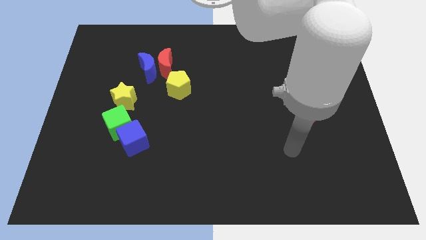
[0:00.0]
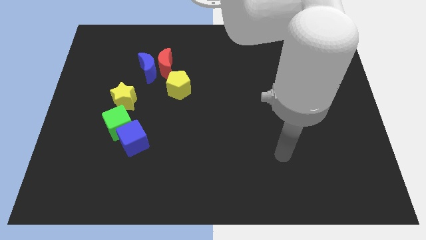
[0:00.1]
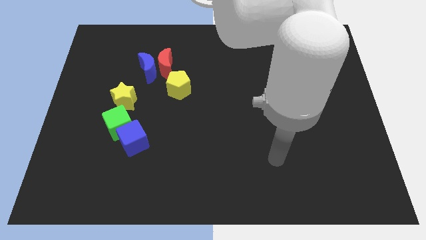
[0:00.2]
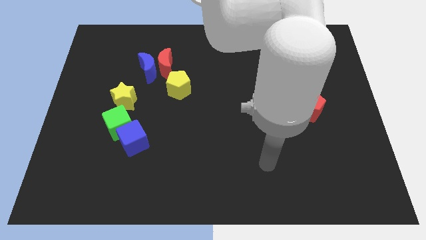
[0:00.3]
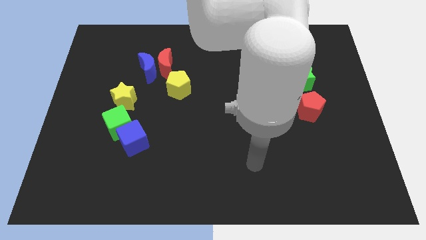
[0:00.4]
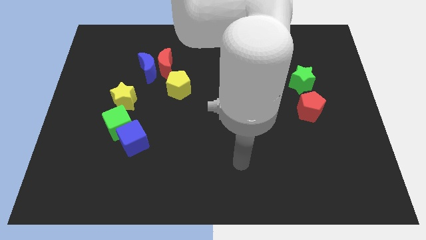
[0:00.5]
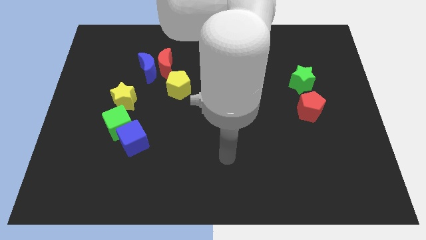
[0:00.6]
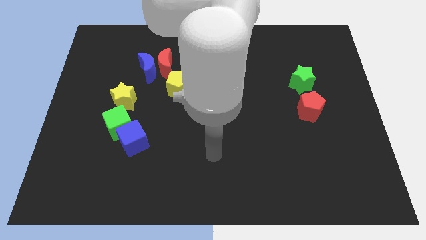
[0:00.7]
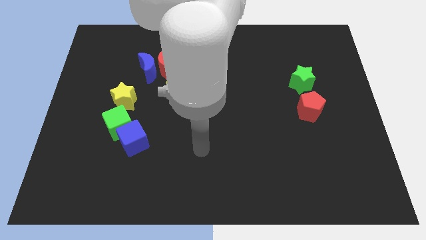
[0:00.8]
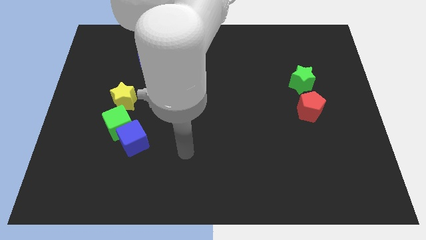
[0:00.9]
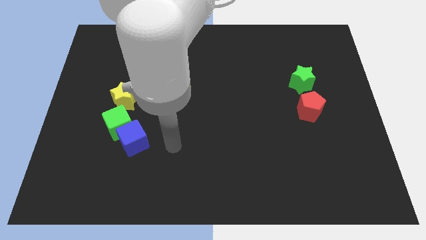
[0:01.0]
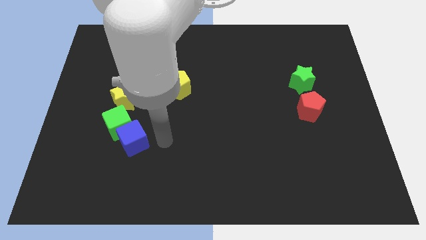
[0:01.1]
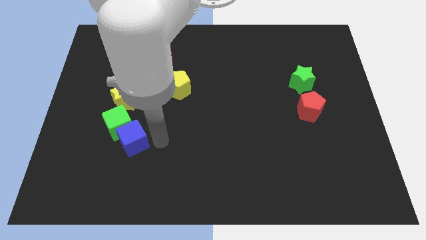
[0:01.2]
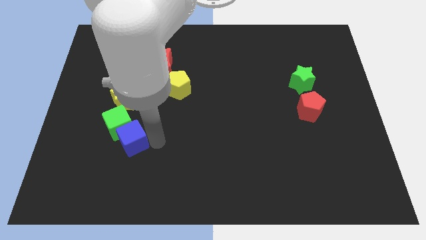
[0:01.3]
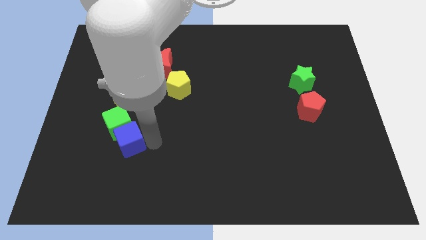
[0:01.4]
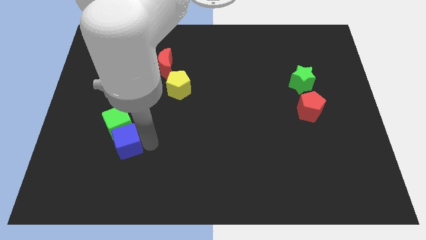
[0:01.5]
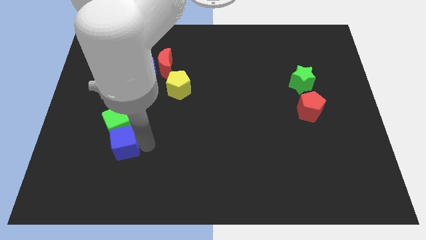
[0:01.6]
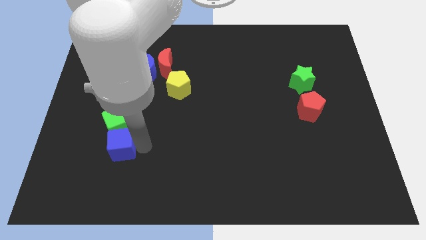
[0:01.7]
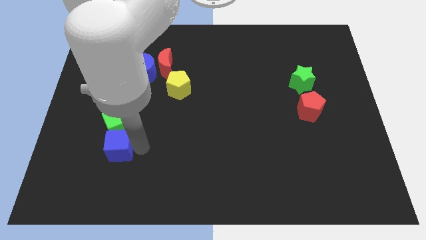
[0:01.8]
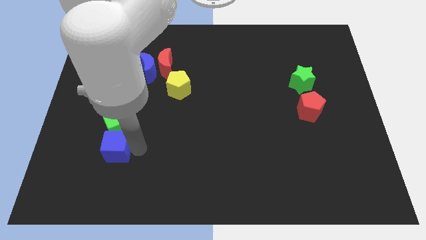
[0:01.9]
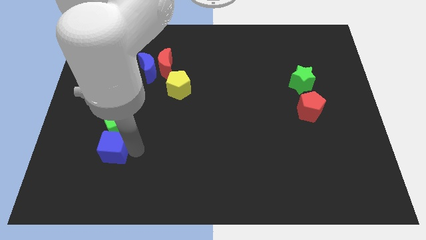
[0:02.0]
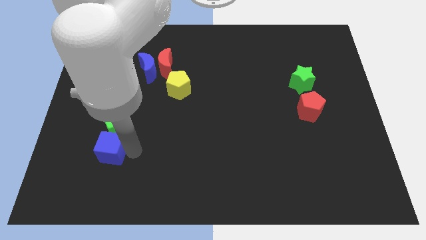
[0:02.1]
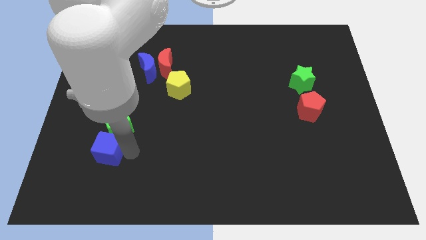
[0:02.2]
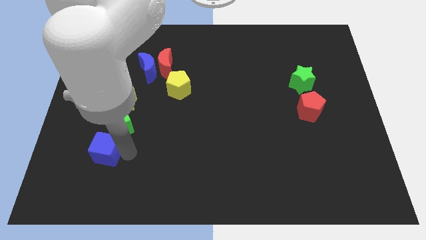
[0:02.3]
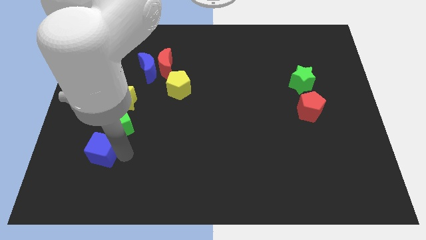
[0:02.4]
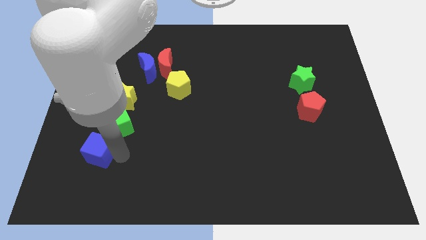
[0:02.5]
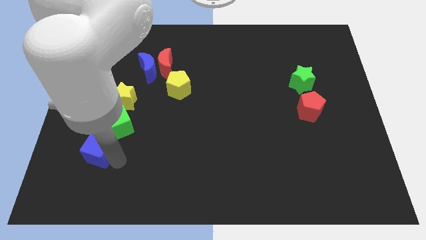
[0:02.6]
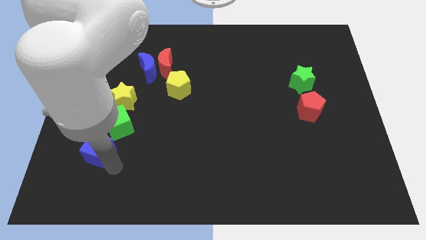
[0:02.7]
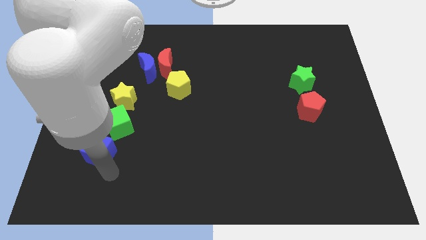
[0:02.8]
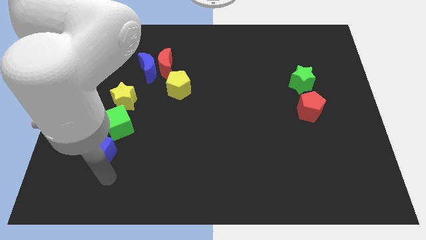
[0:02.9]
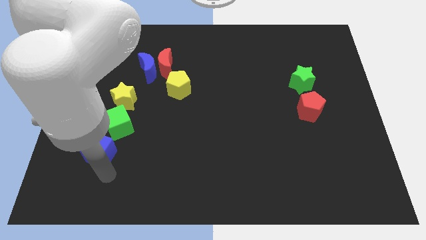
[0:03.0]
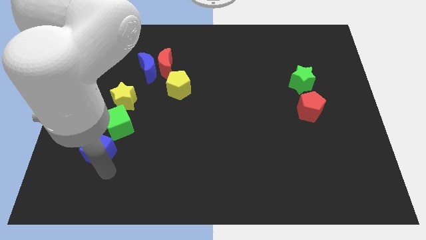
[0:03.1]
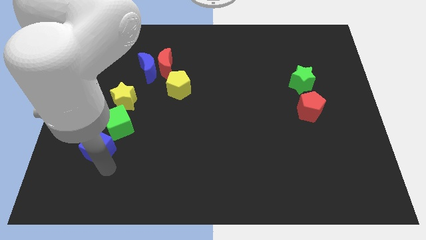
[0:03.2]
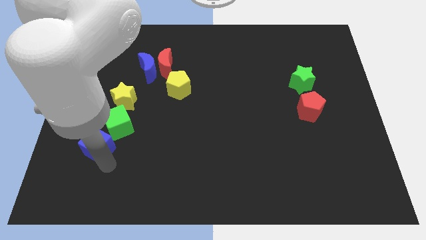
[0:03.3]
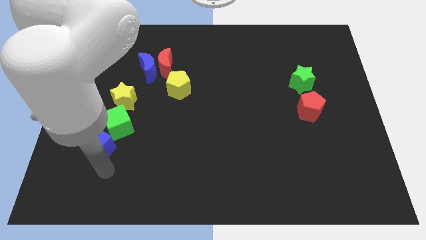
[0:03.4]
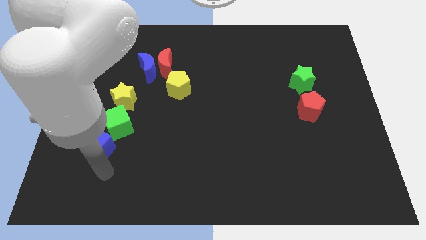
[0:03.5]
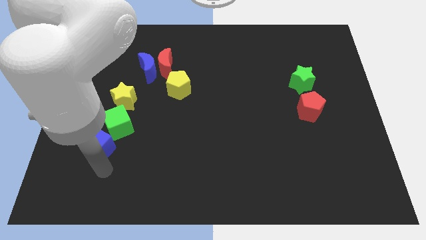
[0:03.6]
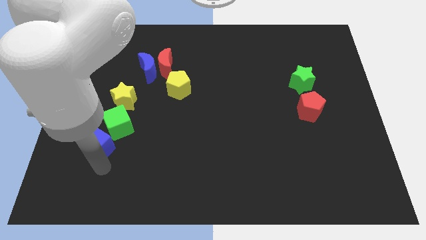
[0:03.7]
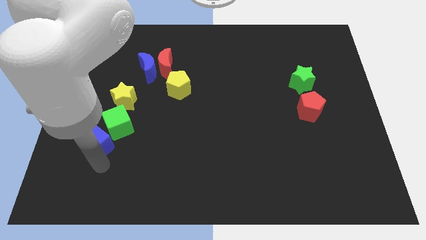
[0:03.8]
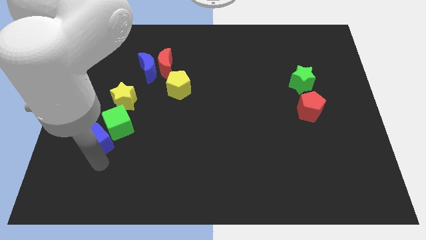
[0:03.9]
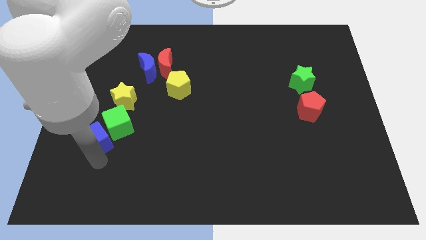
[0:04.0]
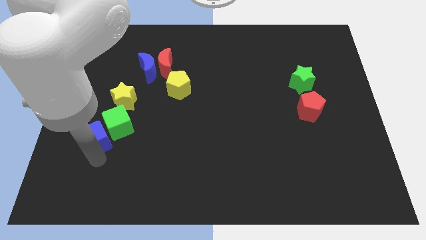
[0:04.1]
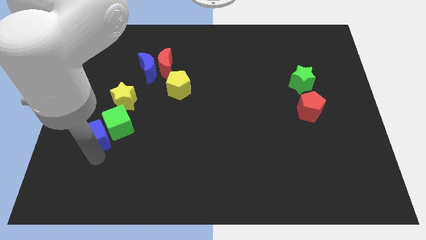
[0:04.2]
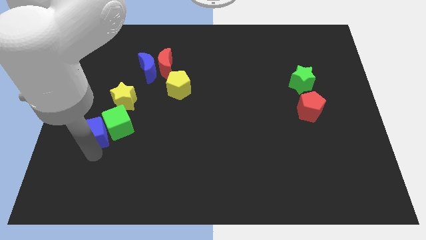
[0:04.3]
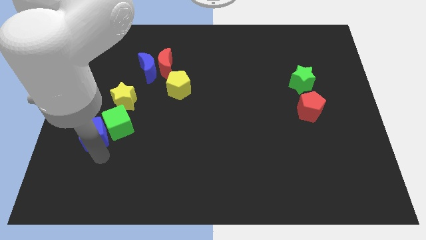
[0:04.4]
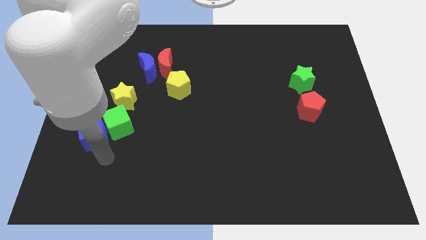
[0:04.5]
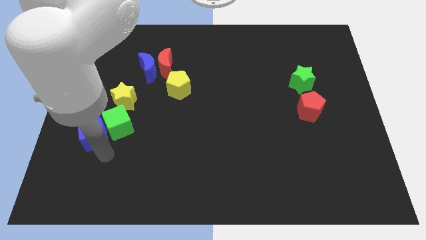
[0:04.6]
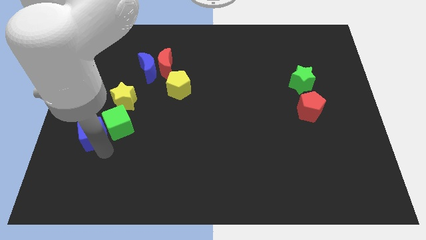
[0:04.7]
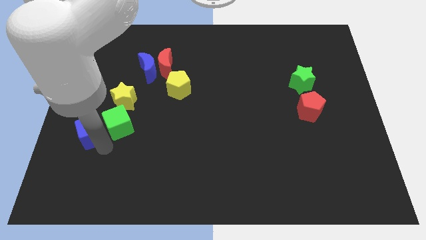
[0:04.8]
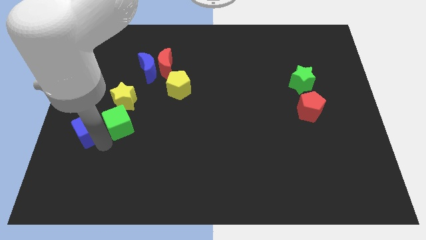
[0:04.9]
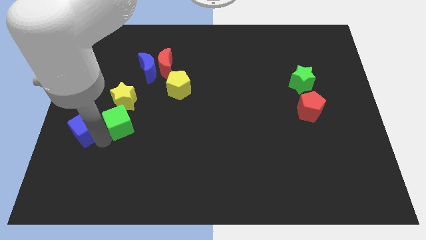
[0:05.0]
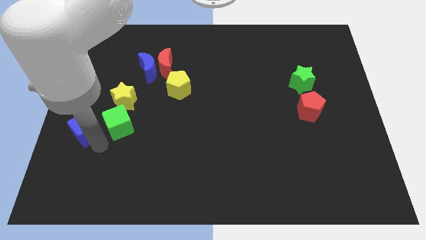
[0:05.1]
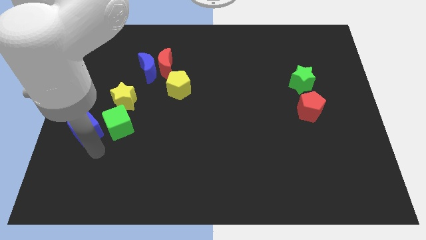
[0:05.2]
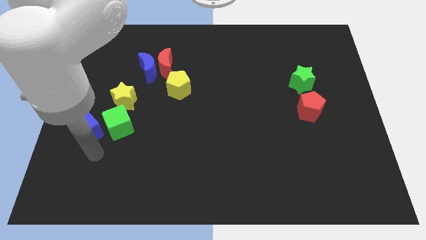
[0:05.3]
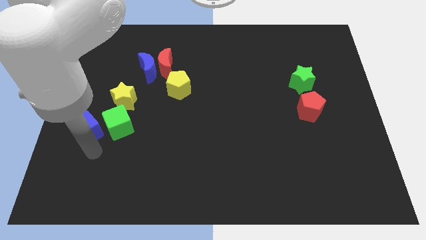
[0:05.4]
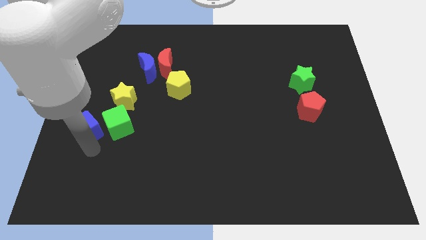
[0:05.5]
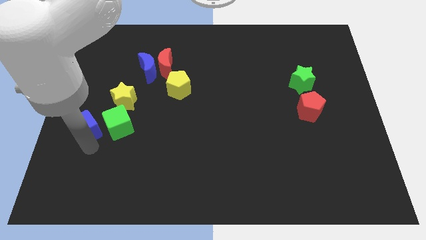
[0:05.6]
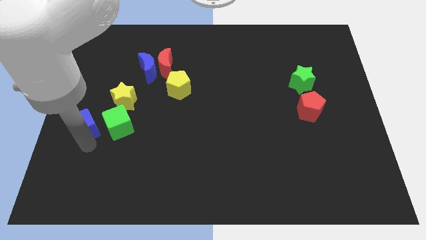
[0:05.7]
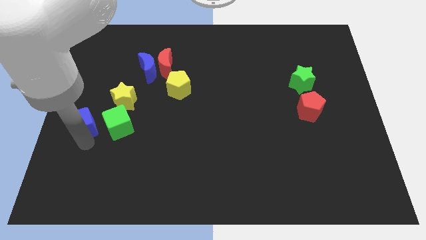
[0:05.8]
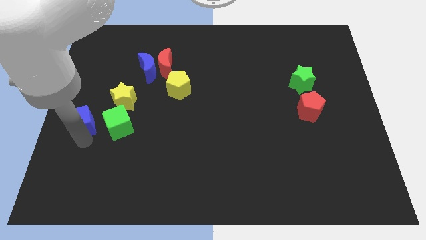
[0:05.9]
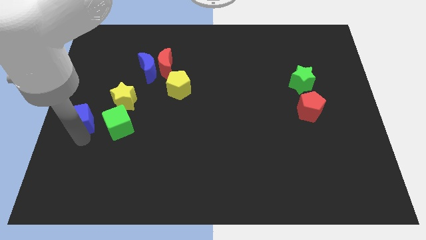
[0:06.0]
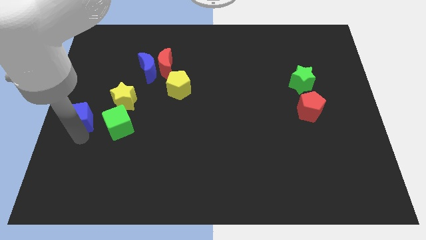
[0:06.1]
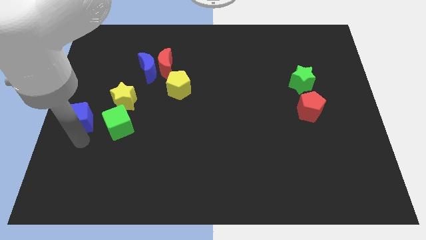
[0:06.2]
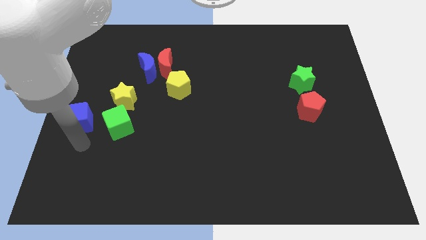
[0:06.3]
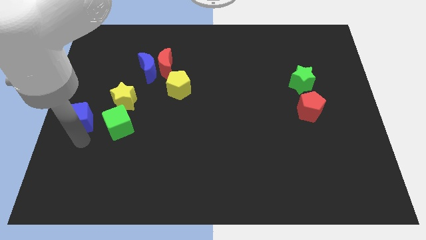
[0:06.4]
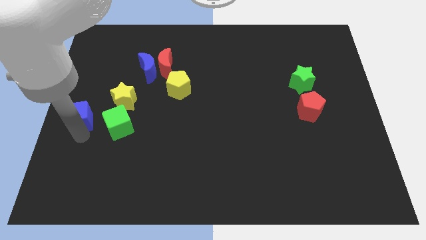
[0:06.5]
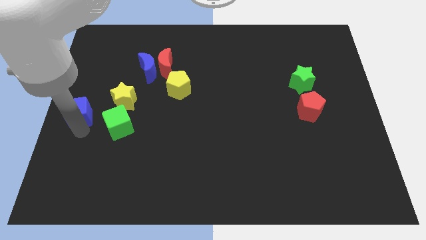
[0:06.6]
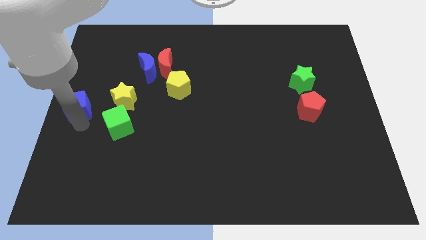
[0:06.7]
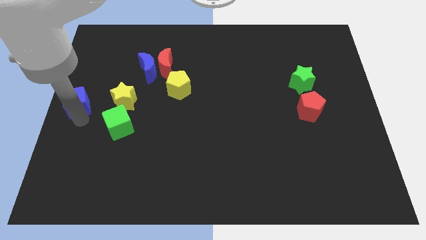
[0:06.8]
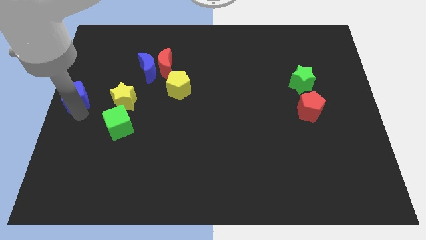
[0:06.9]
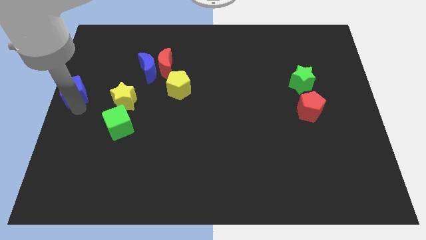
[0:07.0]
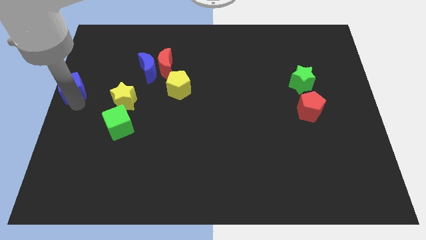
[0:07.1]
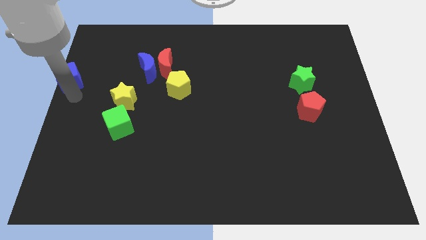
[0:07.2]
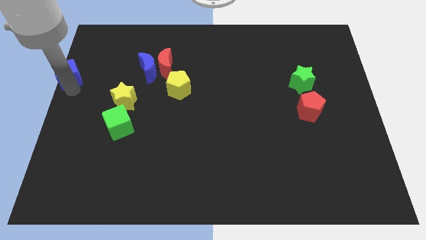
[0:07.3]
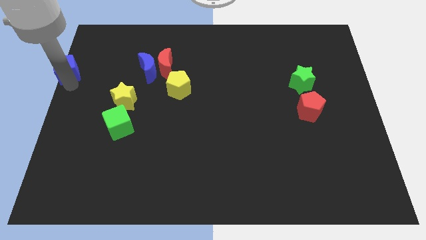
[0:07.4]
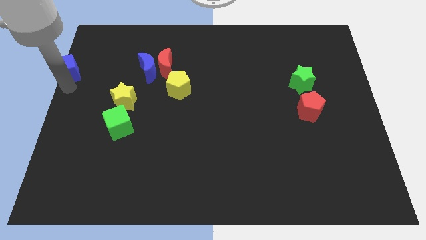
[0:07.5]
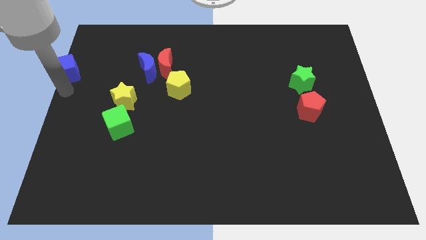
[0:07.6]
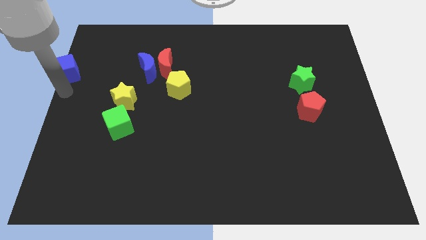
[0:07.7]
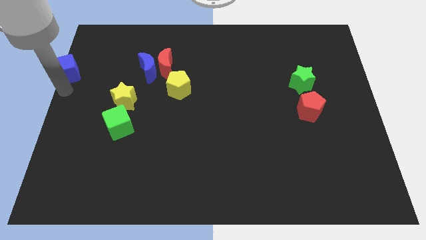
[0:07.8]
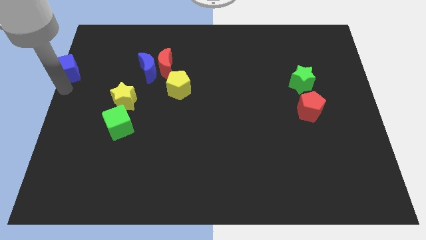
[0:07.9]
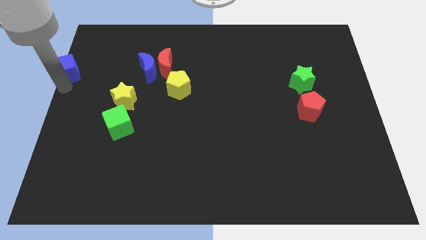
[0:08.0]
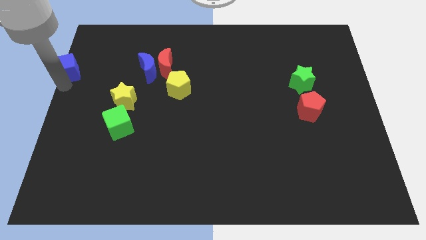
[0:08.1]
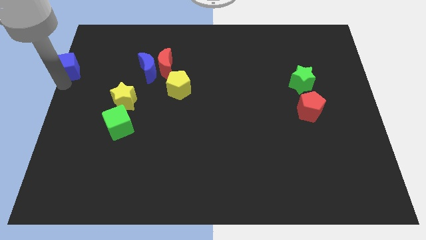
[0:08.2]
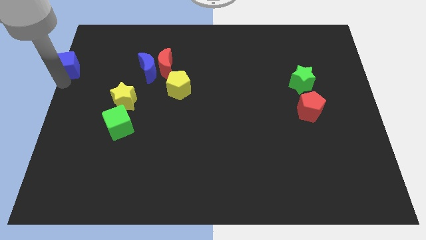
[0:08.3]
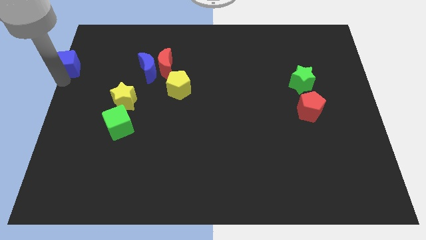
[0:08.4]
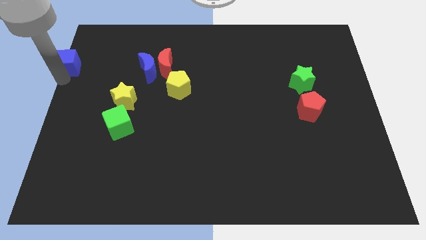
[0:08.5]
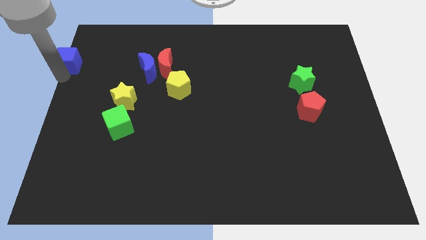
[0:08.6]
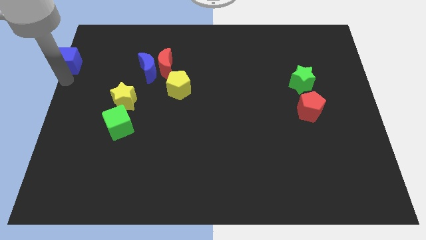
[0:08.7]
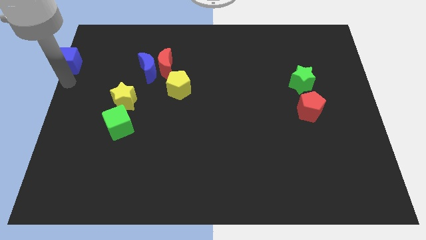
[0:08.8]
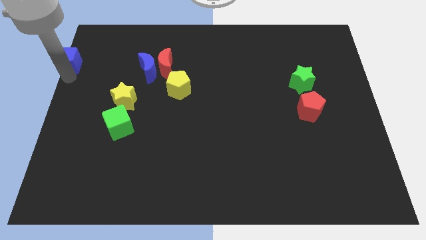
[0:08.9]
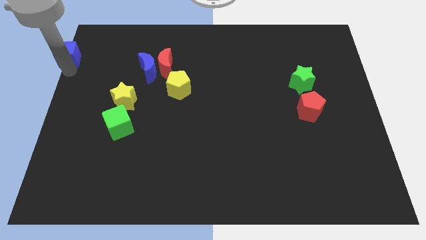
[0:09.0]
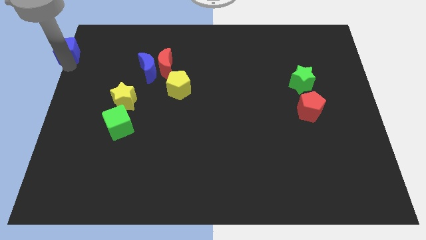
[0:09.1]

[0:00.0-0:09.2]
put the blue cube to the top left
